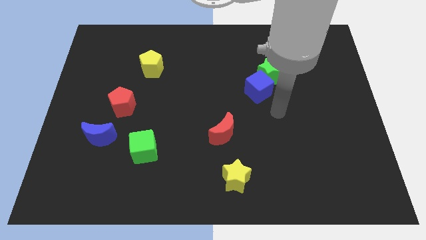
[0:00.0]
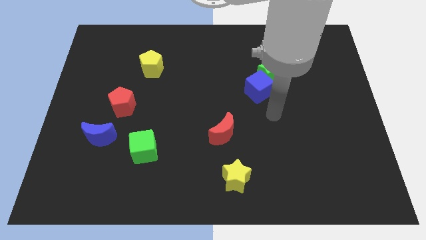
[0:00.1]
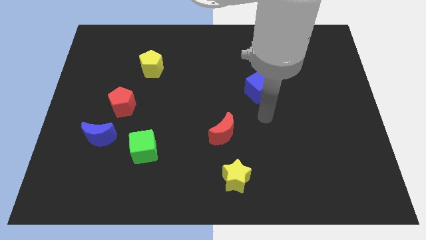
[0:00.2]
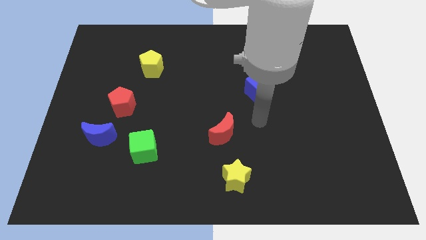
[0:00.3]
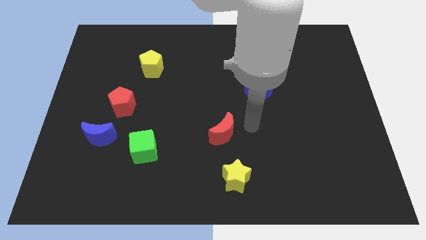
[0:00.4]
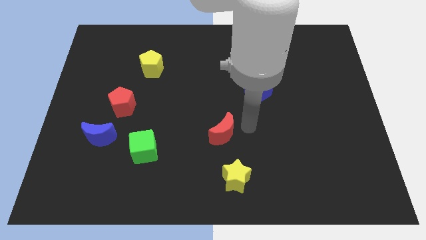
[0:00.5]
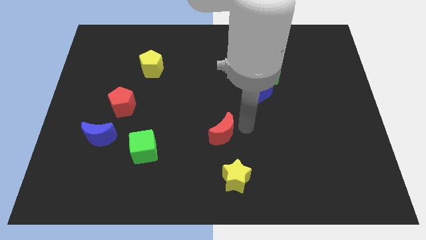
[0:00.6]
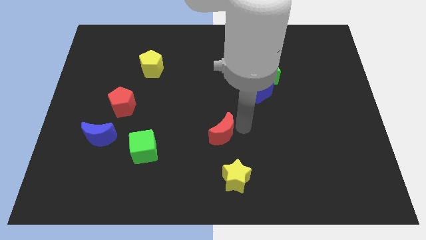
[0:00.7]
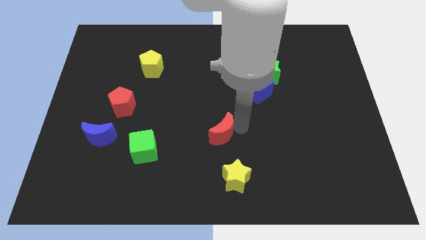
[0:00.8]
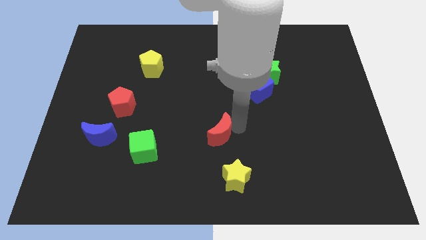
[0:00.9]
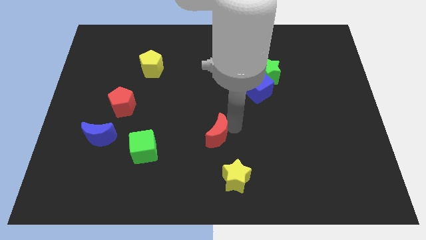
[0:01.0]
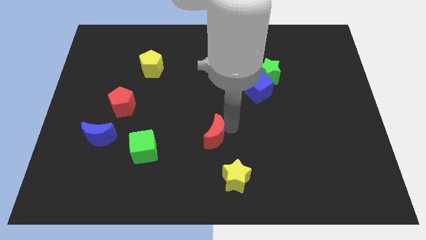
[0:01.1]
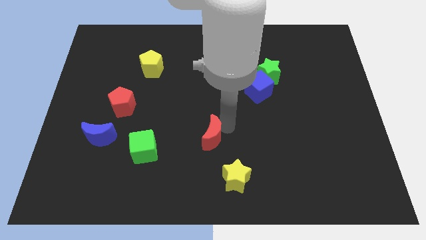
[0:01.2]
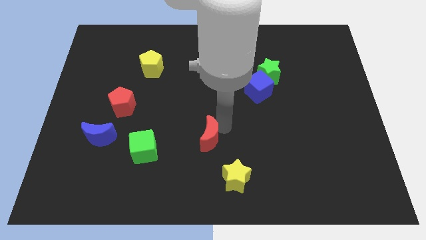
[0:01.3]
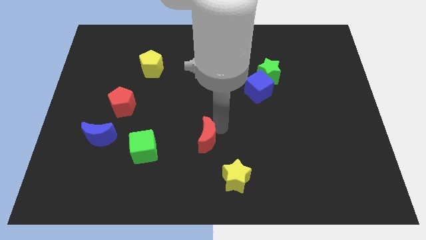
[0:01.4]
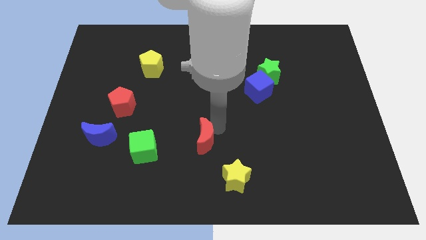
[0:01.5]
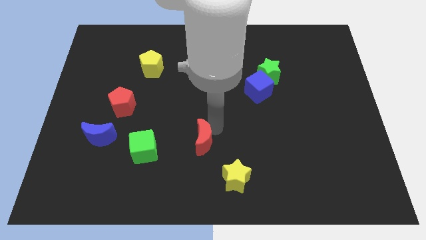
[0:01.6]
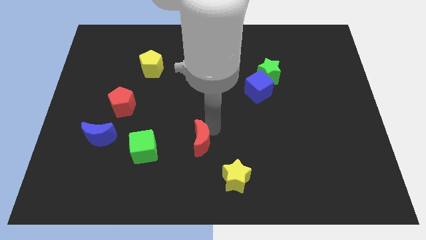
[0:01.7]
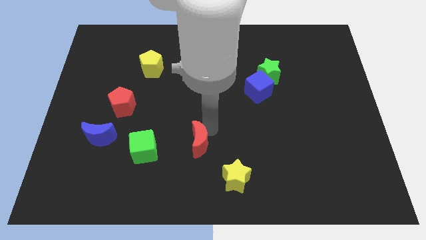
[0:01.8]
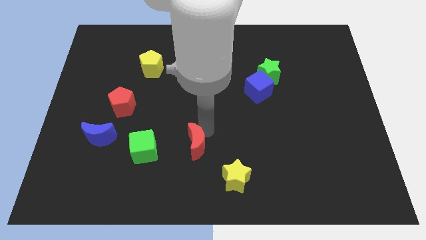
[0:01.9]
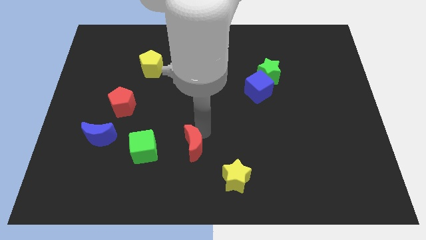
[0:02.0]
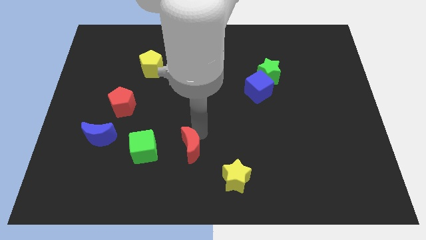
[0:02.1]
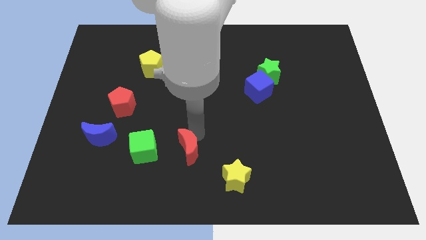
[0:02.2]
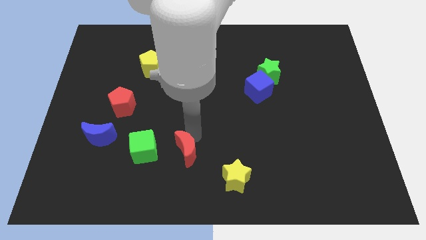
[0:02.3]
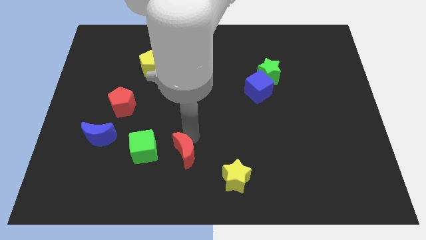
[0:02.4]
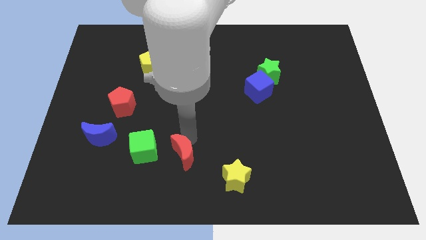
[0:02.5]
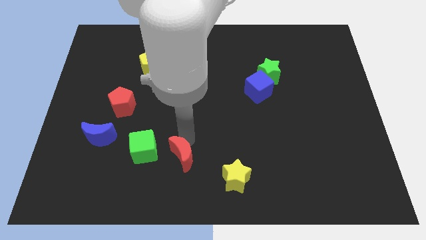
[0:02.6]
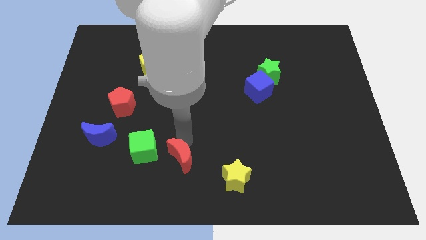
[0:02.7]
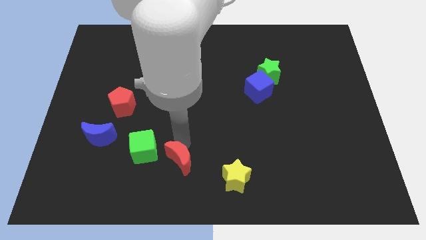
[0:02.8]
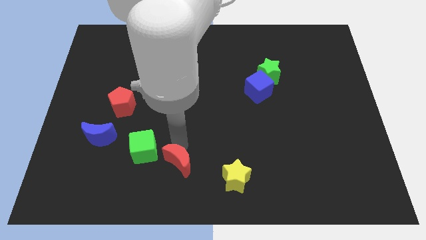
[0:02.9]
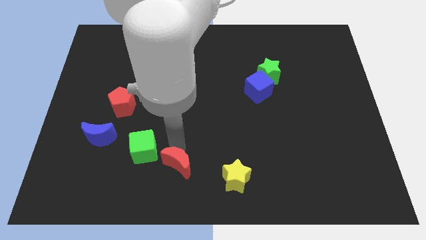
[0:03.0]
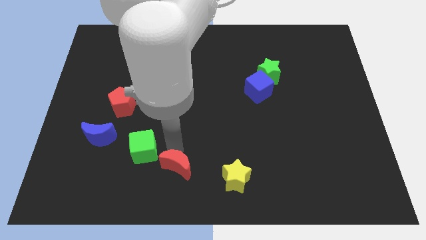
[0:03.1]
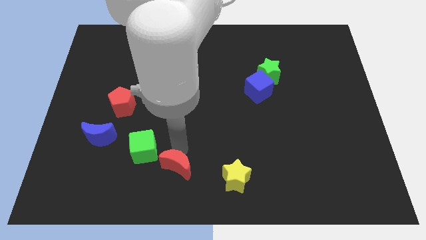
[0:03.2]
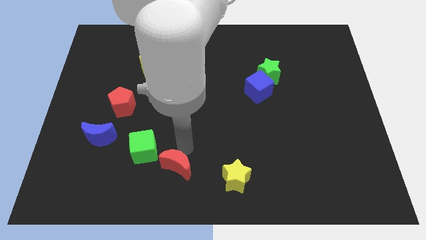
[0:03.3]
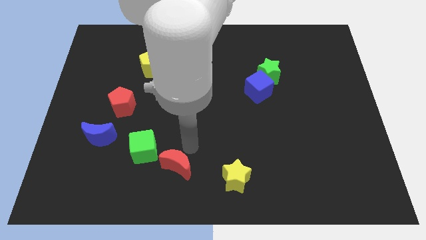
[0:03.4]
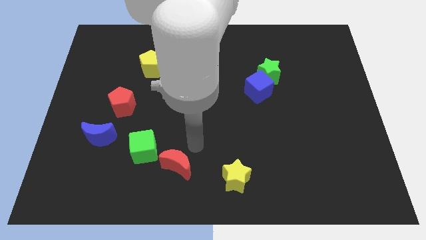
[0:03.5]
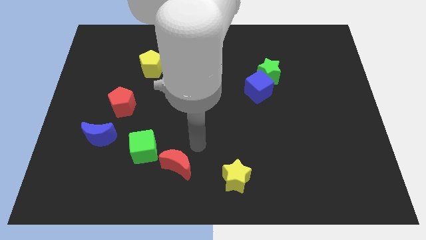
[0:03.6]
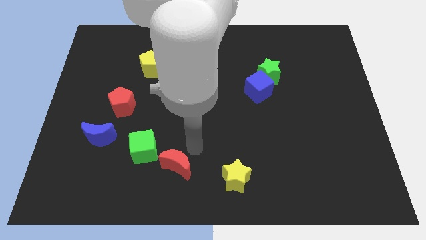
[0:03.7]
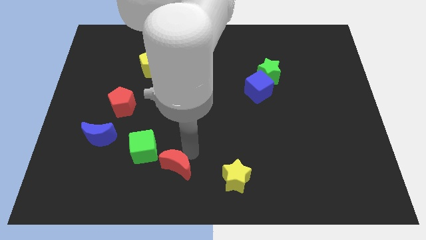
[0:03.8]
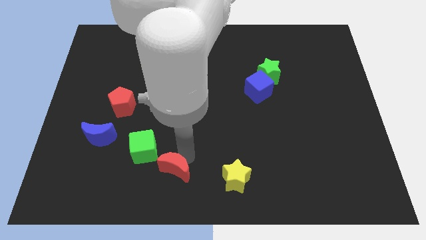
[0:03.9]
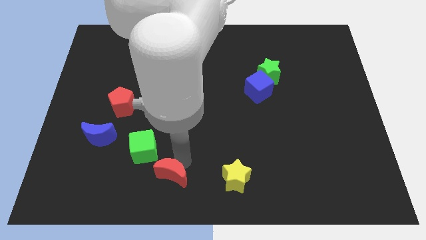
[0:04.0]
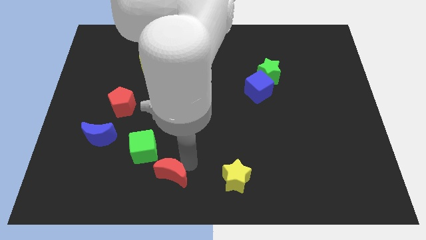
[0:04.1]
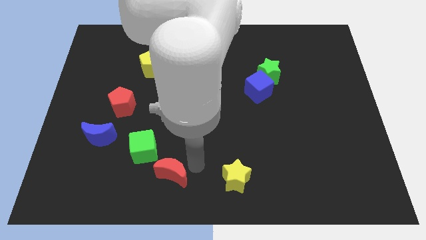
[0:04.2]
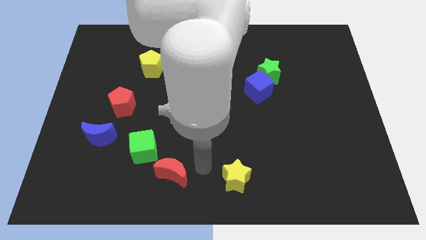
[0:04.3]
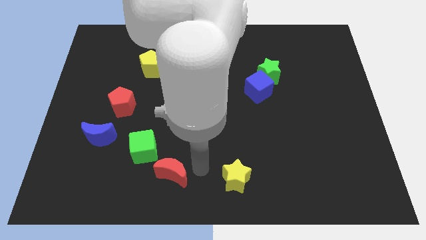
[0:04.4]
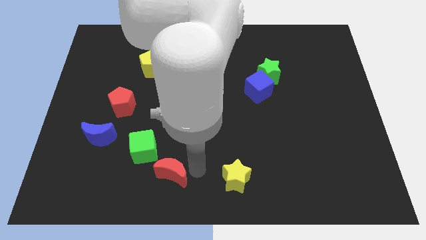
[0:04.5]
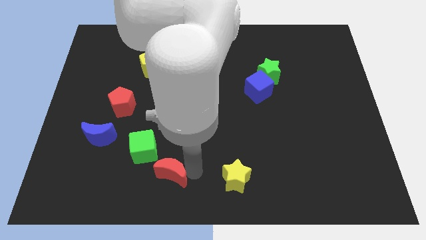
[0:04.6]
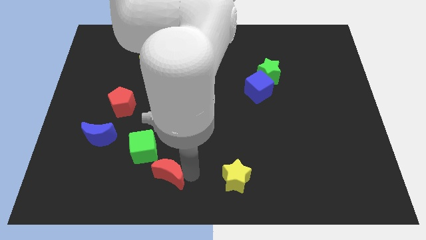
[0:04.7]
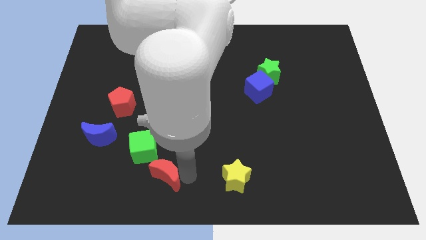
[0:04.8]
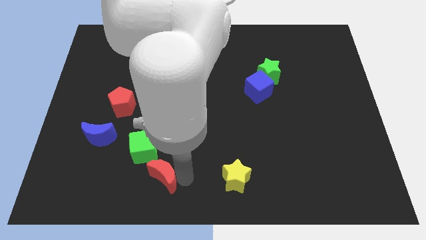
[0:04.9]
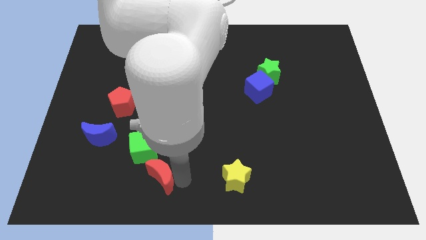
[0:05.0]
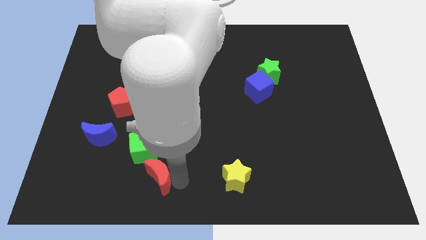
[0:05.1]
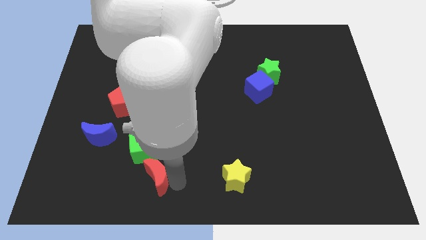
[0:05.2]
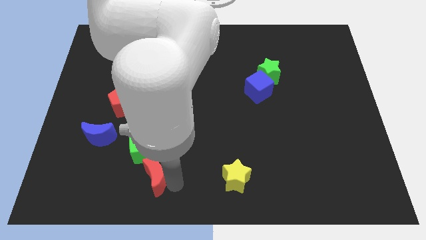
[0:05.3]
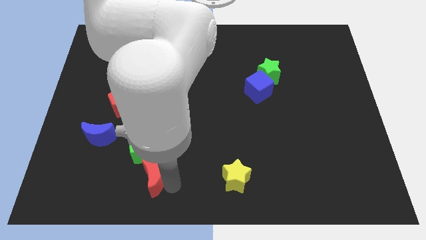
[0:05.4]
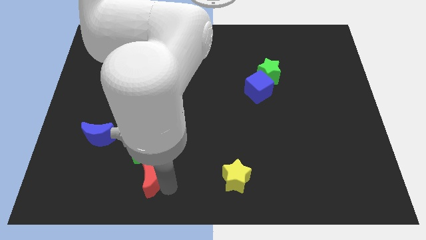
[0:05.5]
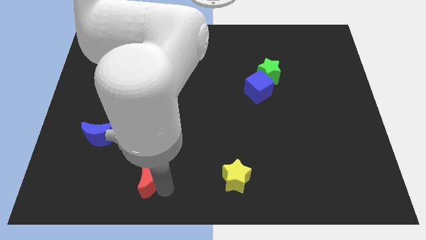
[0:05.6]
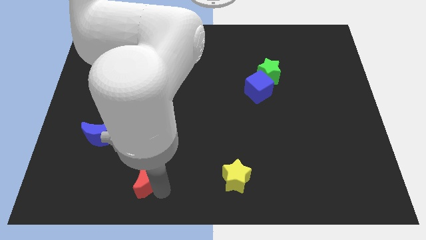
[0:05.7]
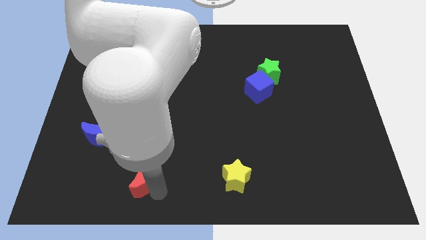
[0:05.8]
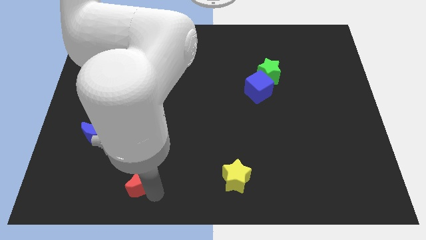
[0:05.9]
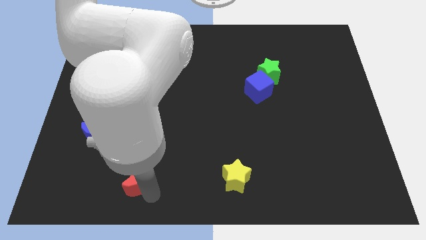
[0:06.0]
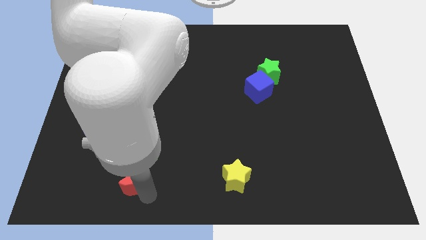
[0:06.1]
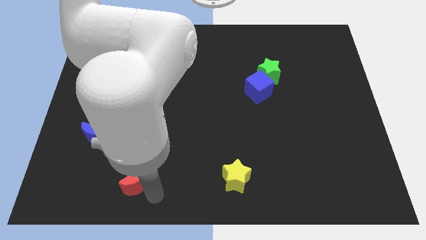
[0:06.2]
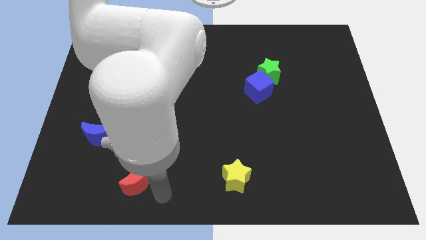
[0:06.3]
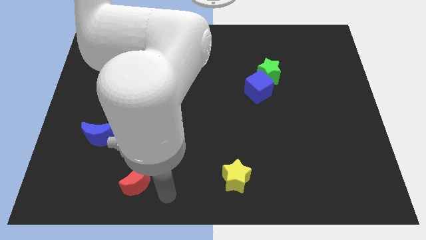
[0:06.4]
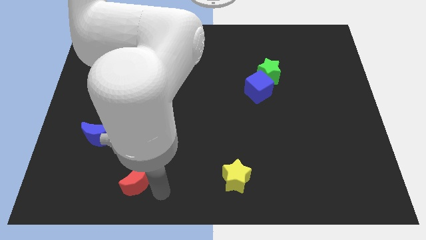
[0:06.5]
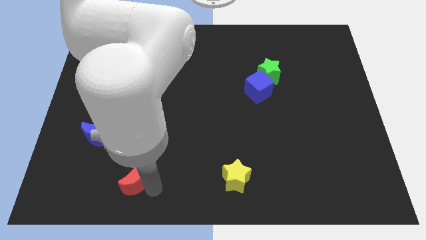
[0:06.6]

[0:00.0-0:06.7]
slide the red moon to the bottom left side of the green cube

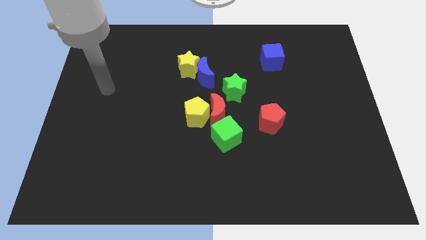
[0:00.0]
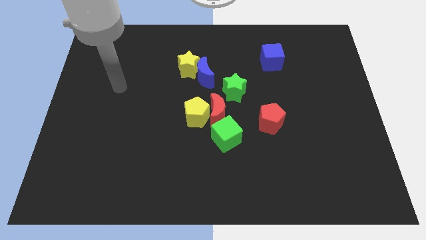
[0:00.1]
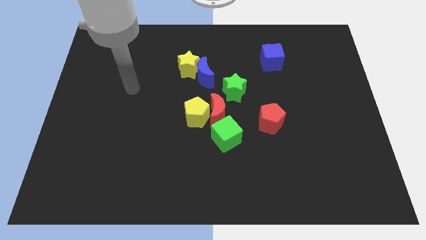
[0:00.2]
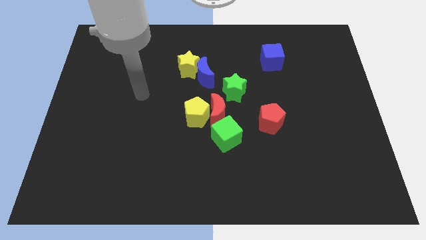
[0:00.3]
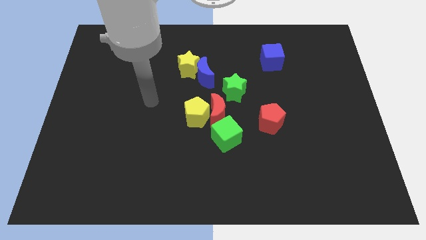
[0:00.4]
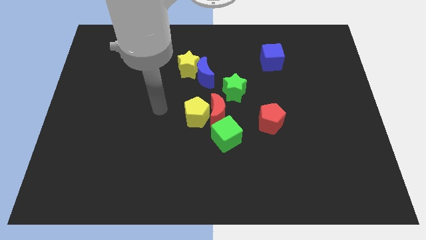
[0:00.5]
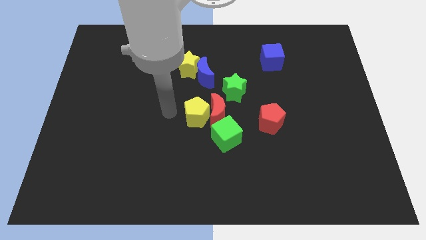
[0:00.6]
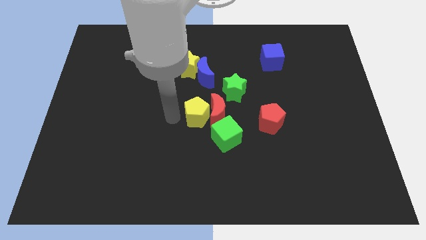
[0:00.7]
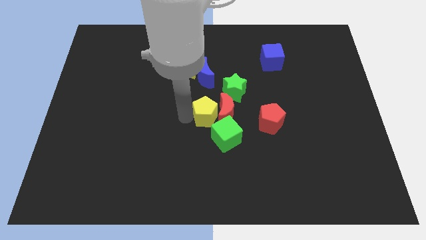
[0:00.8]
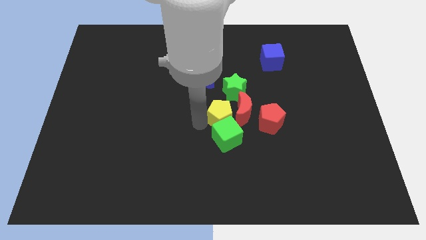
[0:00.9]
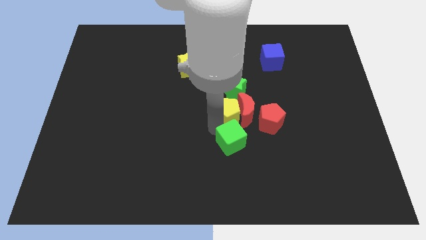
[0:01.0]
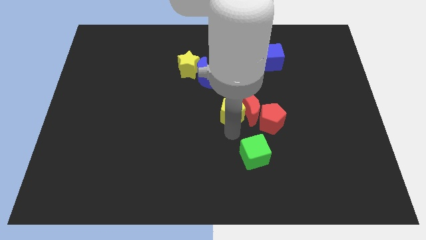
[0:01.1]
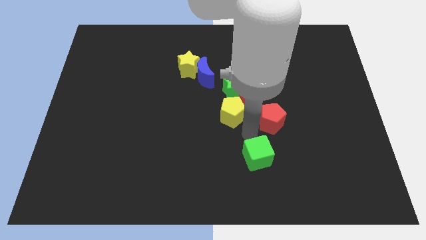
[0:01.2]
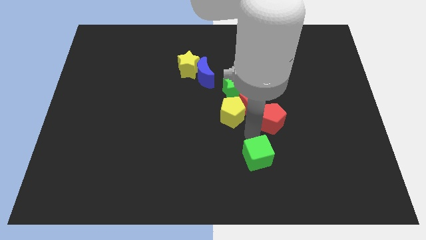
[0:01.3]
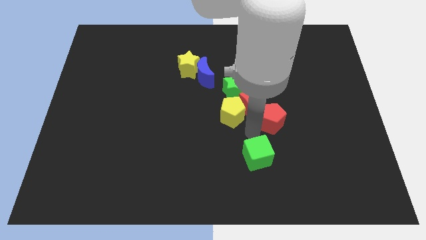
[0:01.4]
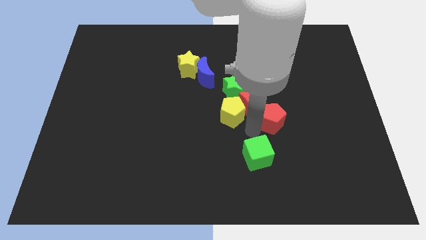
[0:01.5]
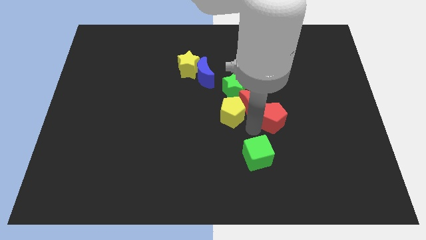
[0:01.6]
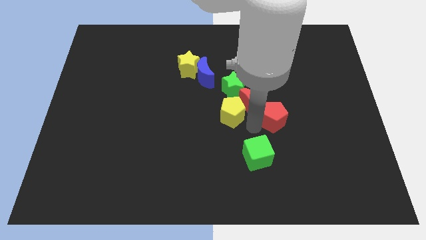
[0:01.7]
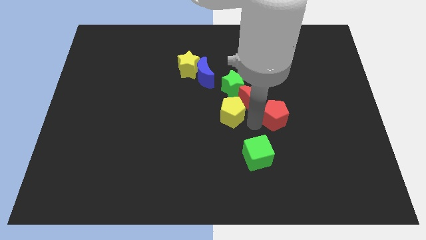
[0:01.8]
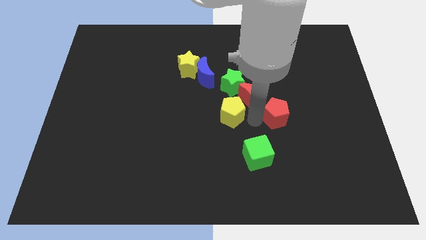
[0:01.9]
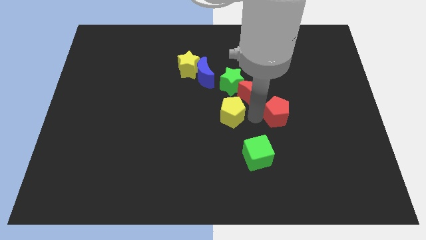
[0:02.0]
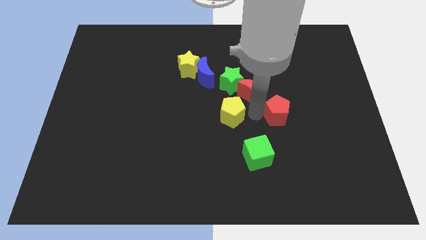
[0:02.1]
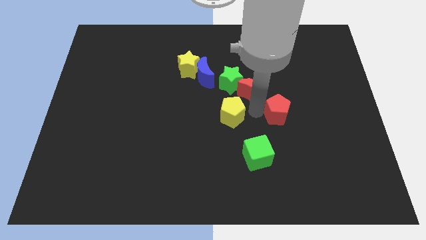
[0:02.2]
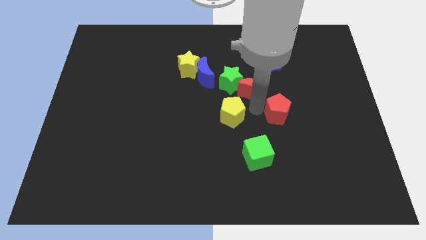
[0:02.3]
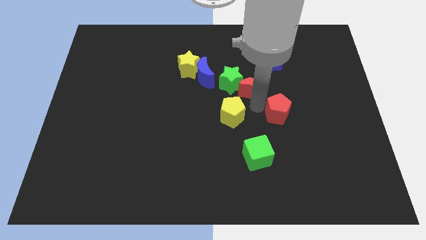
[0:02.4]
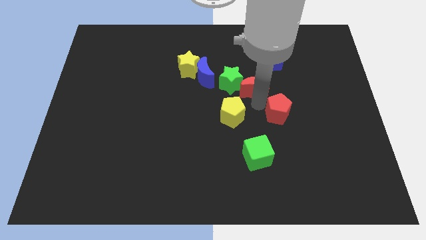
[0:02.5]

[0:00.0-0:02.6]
put the red moon to the right side of the blue moon
